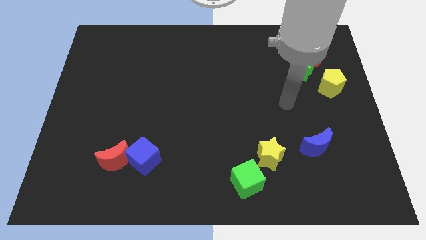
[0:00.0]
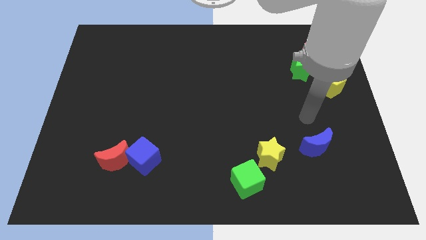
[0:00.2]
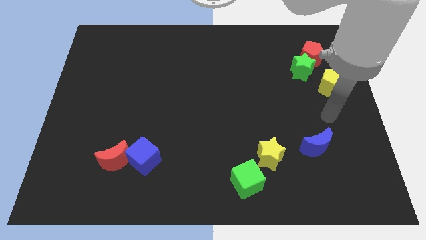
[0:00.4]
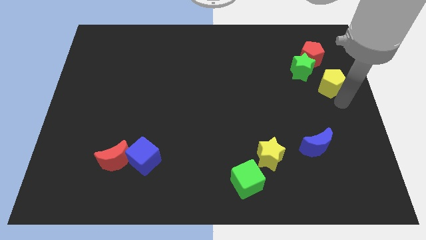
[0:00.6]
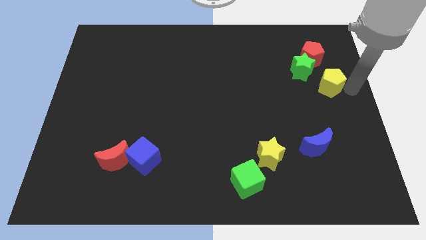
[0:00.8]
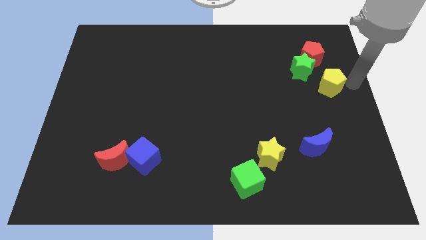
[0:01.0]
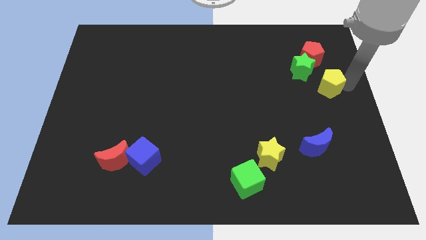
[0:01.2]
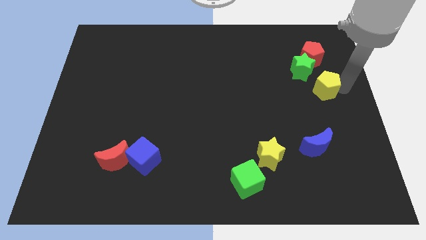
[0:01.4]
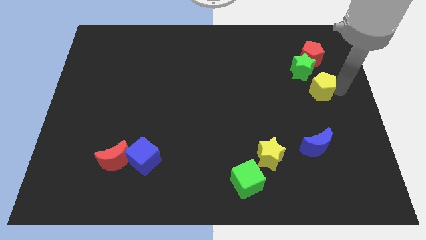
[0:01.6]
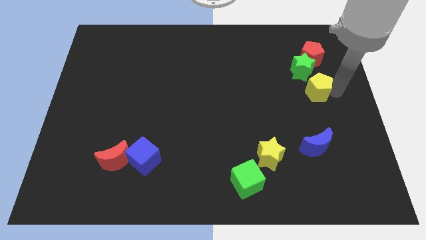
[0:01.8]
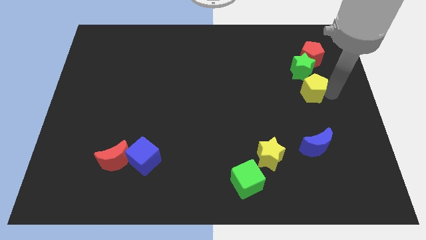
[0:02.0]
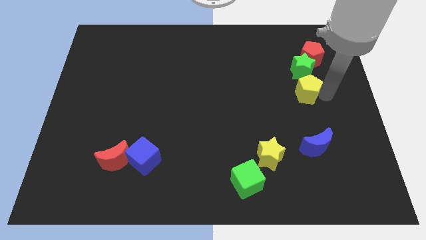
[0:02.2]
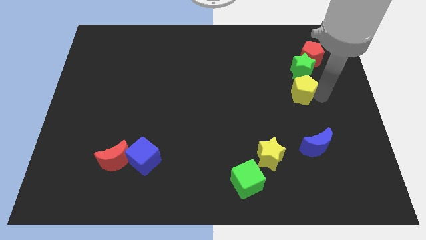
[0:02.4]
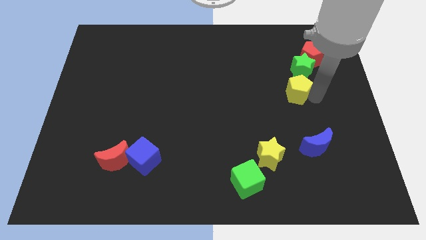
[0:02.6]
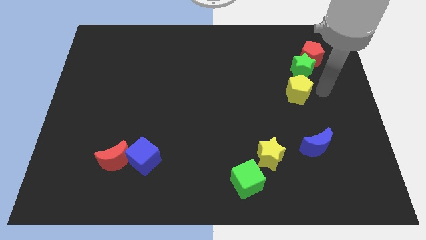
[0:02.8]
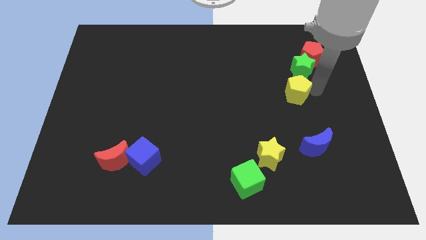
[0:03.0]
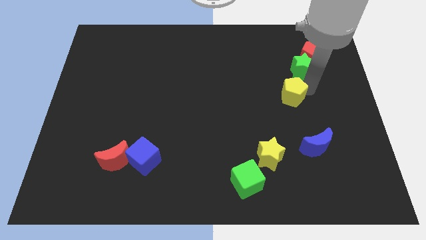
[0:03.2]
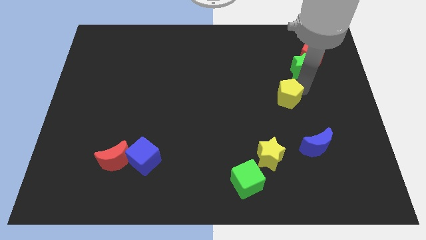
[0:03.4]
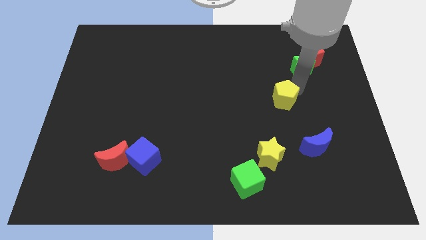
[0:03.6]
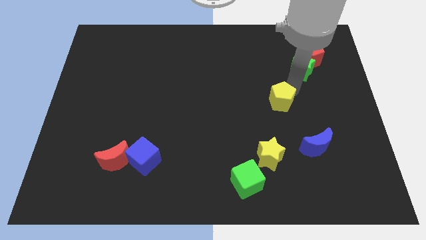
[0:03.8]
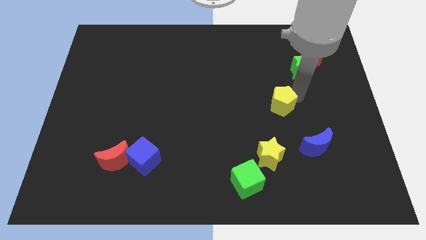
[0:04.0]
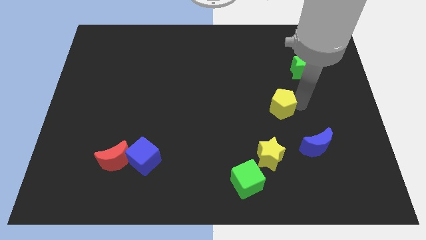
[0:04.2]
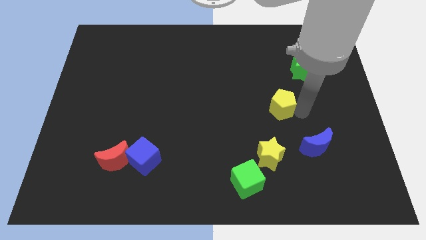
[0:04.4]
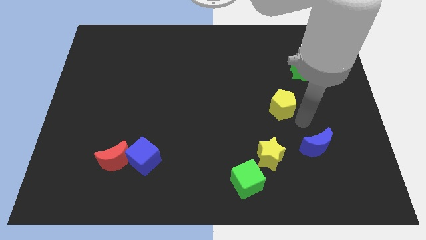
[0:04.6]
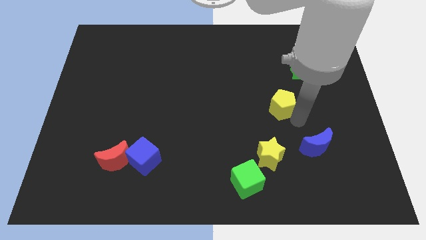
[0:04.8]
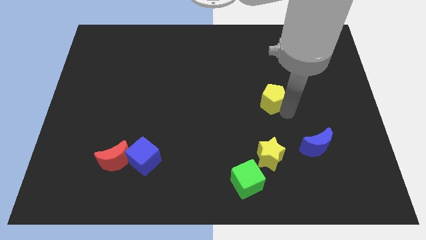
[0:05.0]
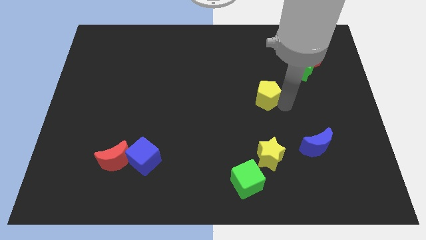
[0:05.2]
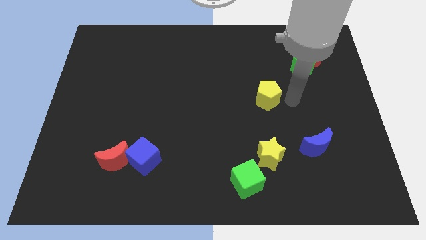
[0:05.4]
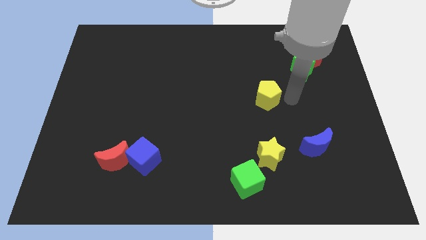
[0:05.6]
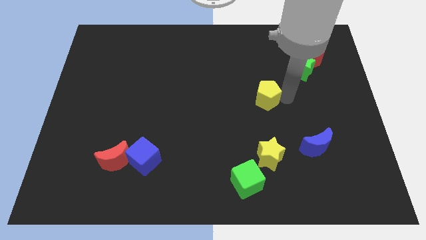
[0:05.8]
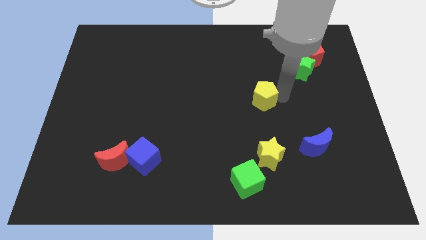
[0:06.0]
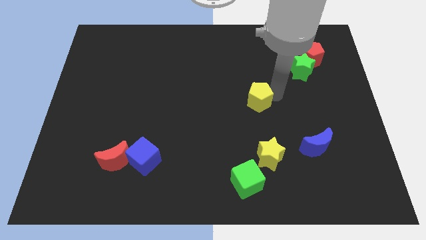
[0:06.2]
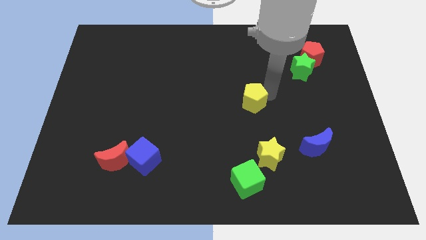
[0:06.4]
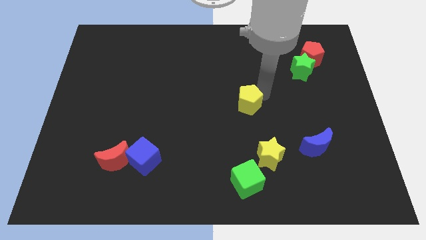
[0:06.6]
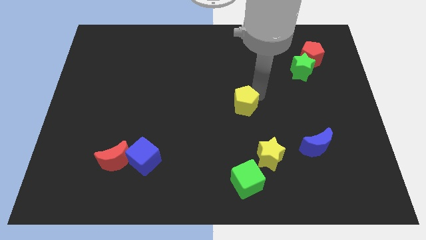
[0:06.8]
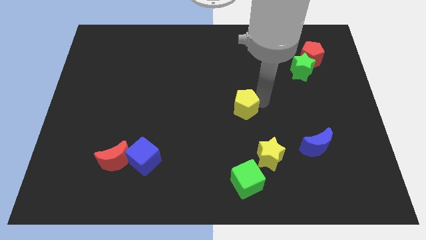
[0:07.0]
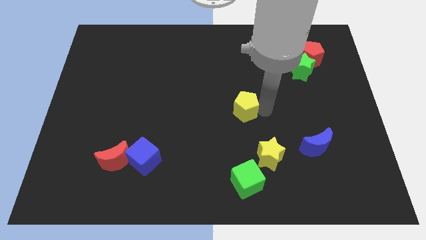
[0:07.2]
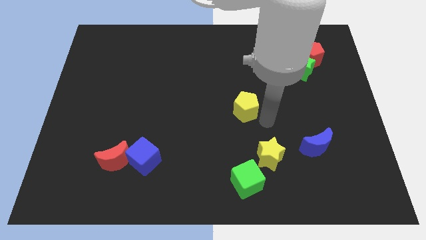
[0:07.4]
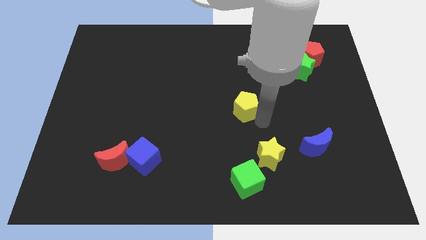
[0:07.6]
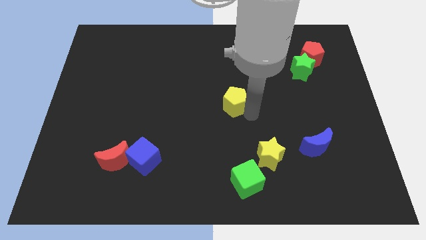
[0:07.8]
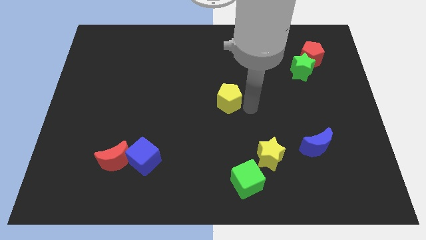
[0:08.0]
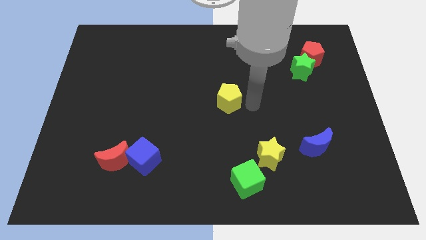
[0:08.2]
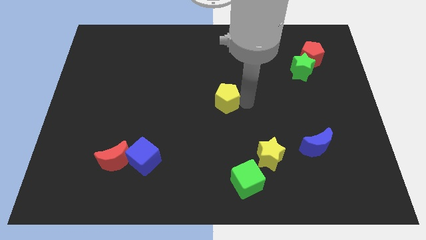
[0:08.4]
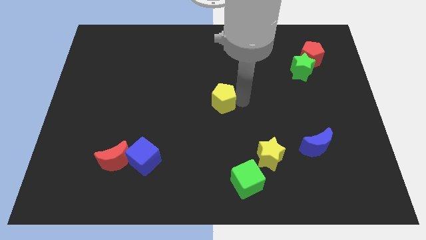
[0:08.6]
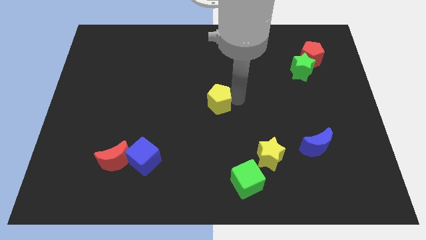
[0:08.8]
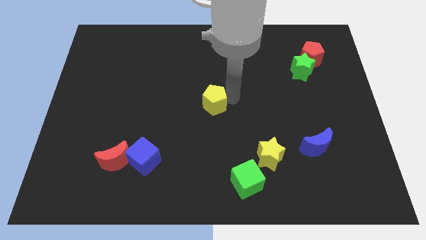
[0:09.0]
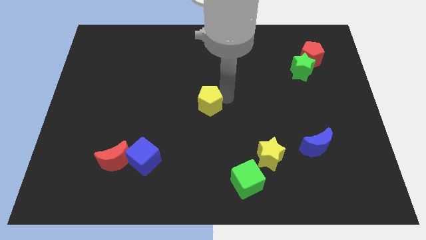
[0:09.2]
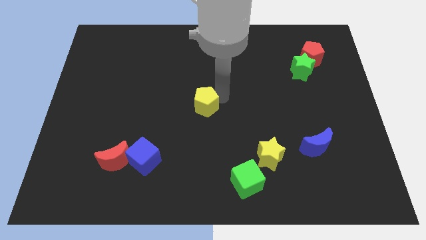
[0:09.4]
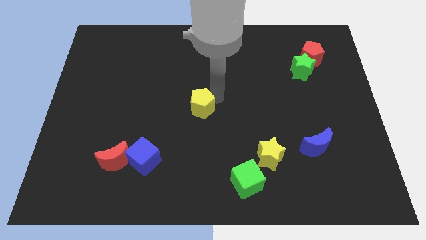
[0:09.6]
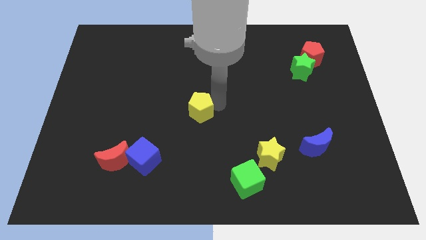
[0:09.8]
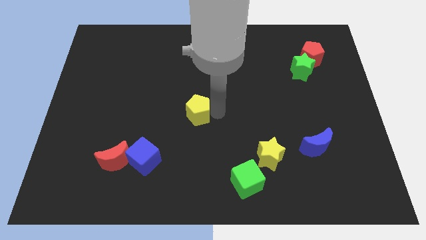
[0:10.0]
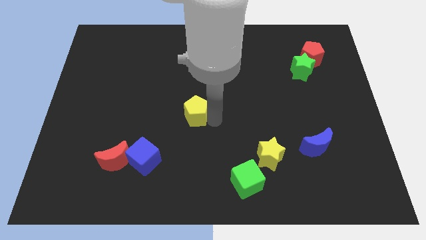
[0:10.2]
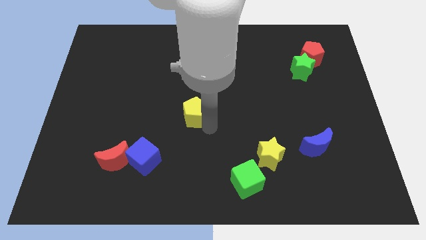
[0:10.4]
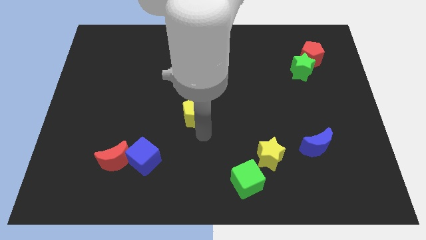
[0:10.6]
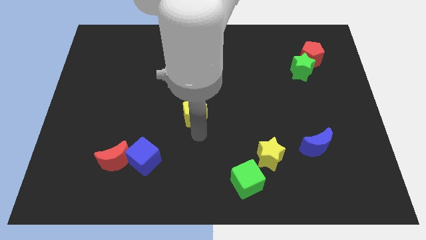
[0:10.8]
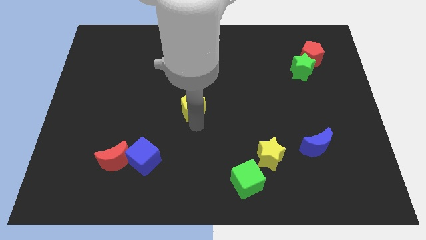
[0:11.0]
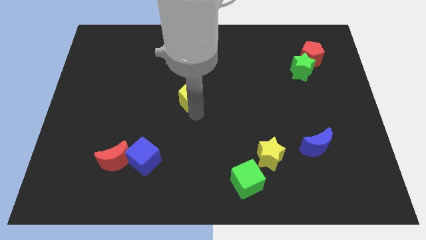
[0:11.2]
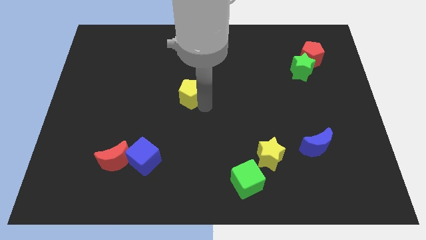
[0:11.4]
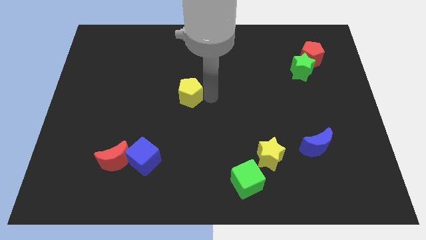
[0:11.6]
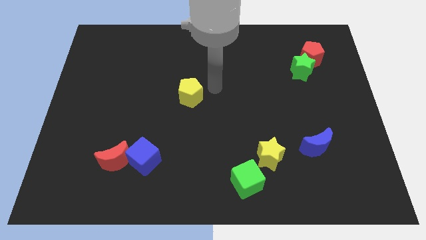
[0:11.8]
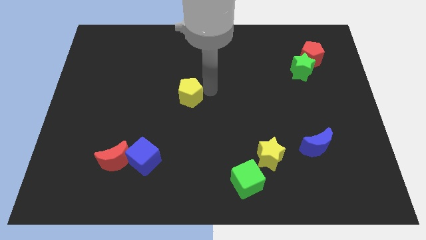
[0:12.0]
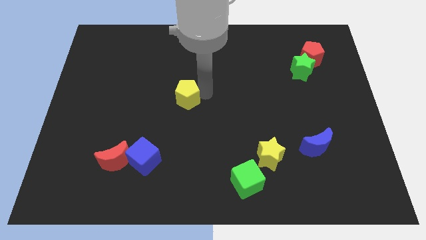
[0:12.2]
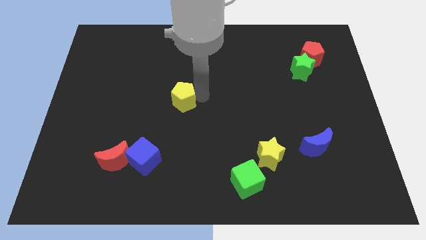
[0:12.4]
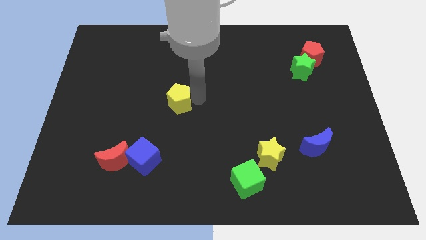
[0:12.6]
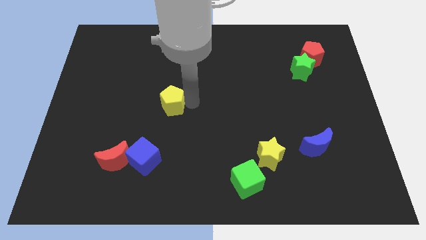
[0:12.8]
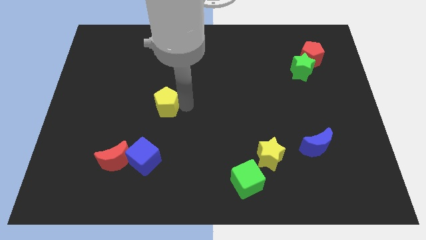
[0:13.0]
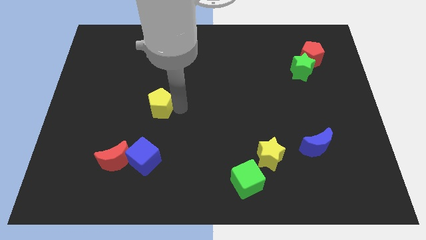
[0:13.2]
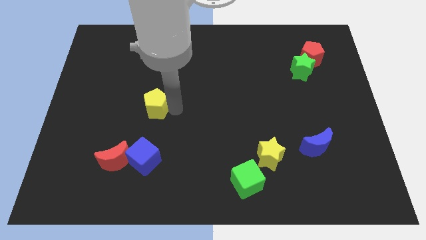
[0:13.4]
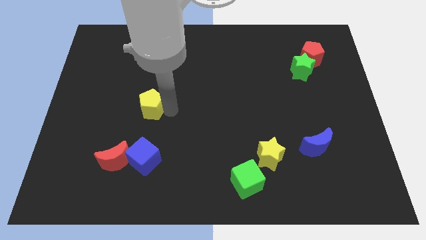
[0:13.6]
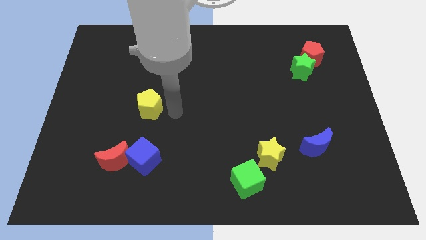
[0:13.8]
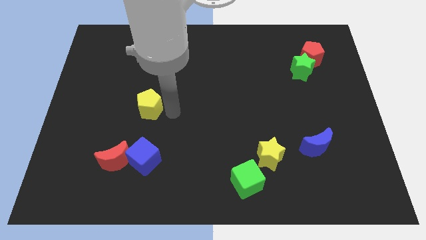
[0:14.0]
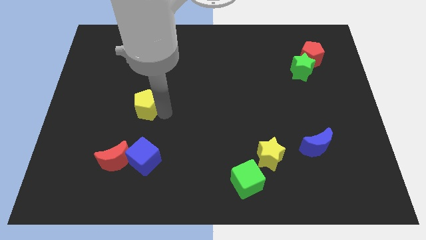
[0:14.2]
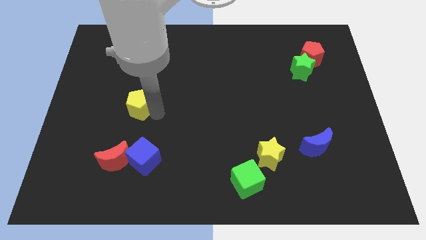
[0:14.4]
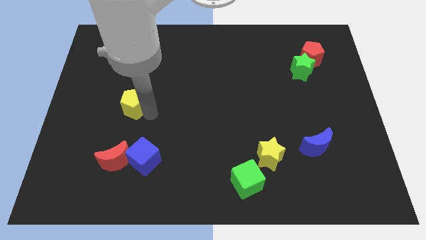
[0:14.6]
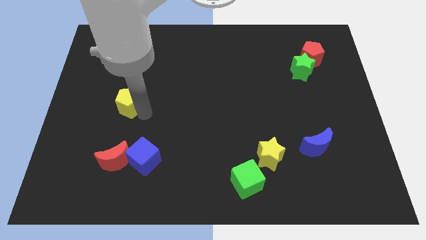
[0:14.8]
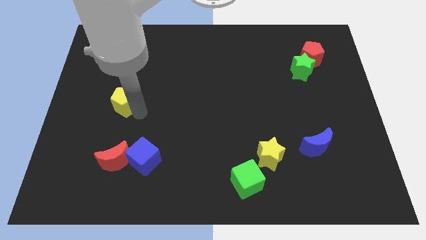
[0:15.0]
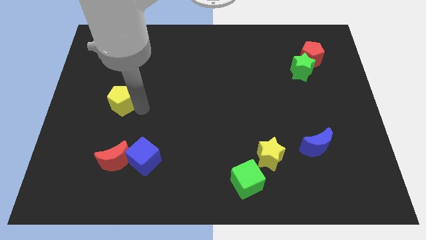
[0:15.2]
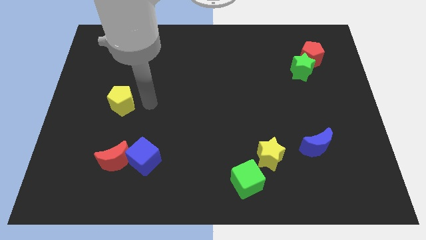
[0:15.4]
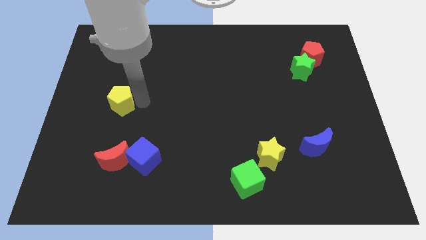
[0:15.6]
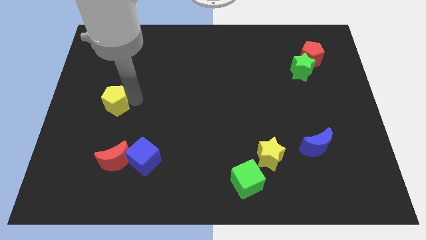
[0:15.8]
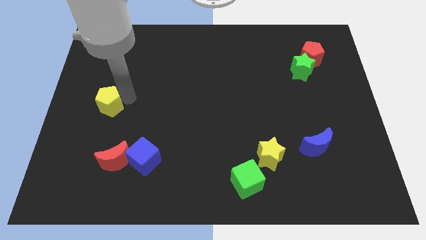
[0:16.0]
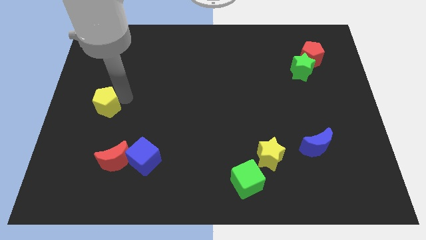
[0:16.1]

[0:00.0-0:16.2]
move the yellow pentagon to the left side of the board

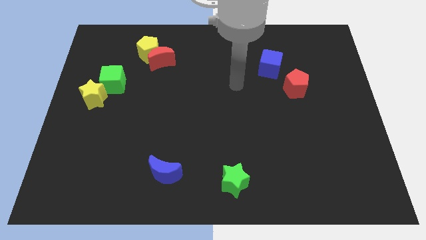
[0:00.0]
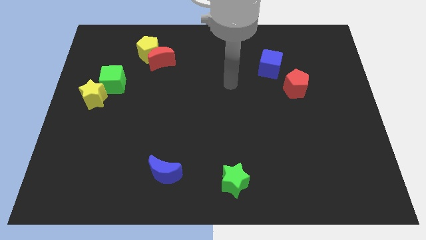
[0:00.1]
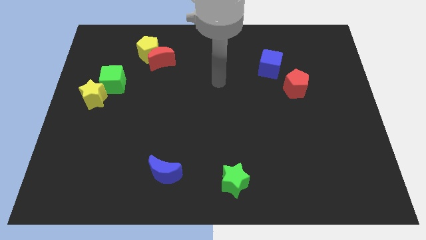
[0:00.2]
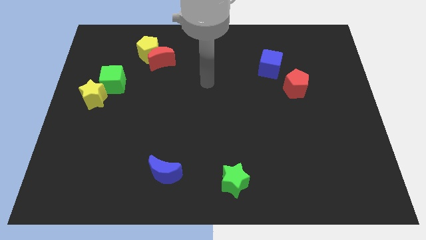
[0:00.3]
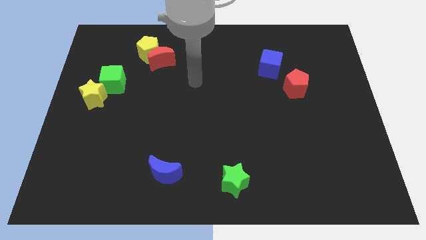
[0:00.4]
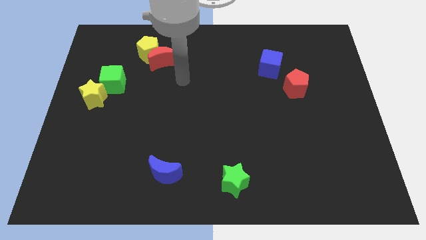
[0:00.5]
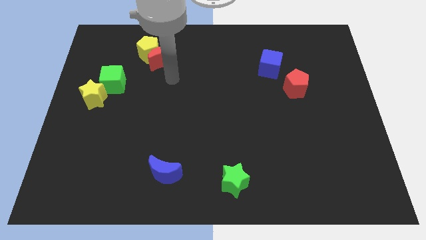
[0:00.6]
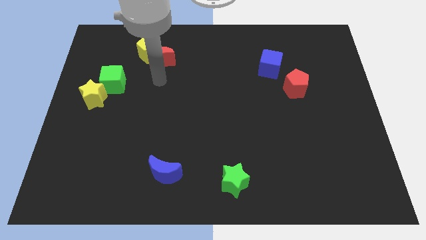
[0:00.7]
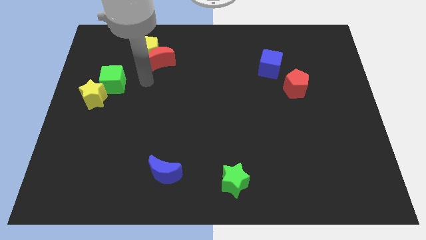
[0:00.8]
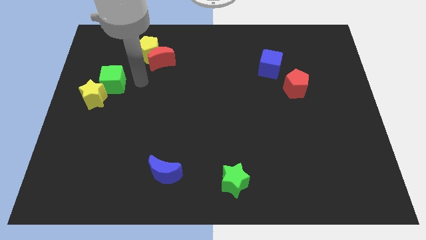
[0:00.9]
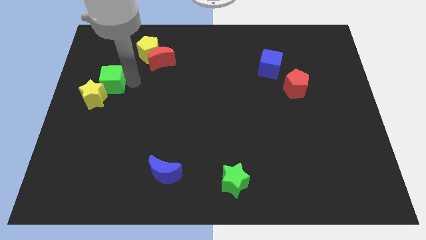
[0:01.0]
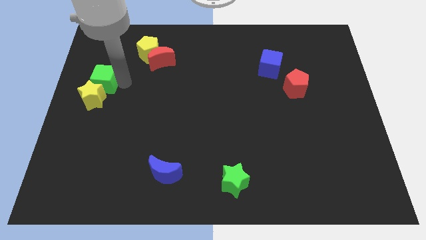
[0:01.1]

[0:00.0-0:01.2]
move the green cube to the left side of the board
